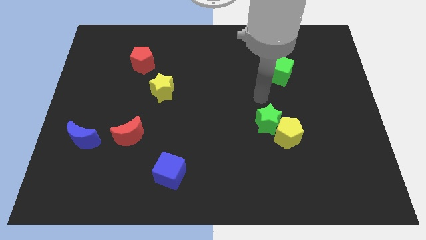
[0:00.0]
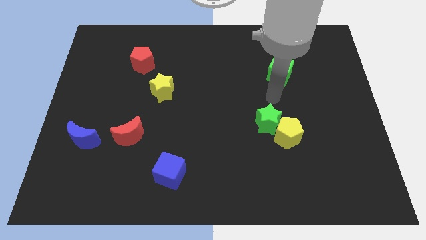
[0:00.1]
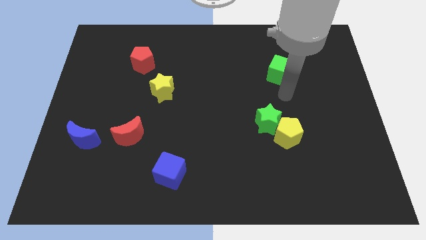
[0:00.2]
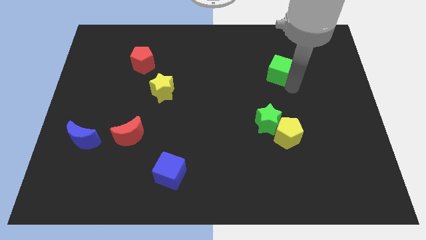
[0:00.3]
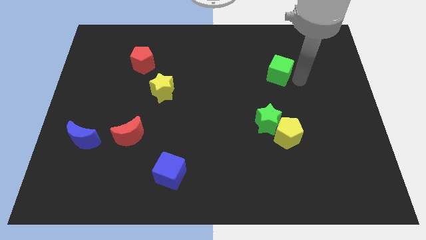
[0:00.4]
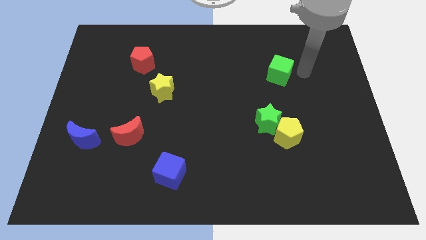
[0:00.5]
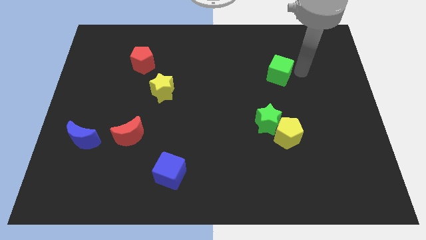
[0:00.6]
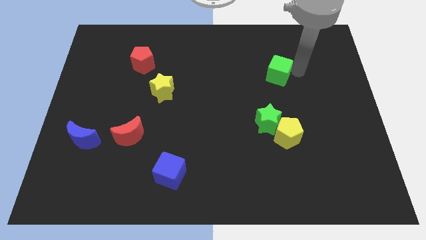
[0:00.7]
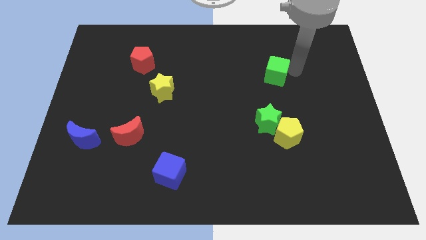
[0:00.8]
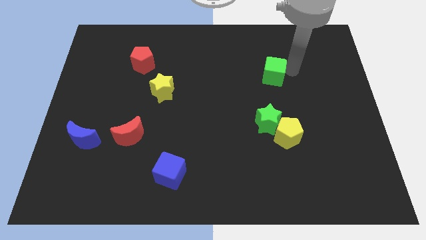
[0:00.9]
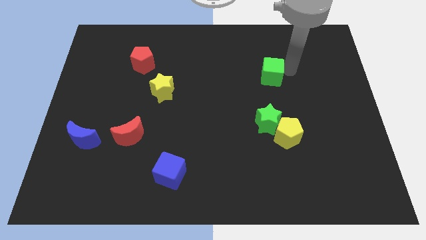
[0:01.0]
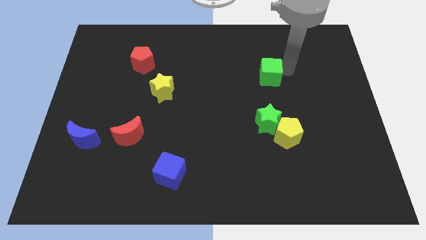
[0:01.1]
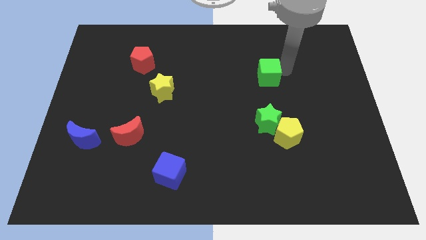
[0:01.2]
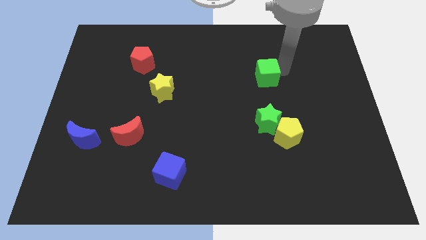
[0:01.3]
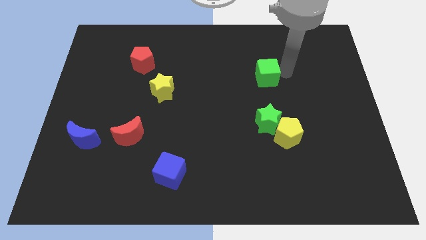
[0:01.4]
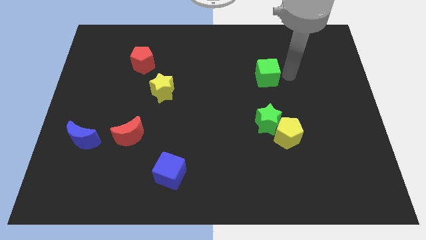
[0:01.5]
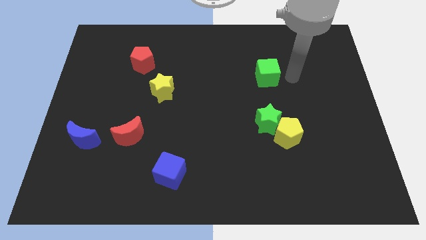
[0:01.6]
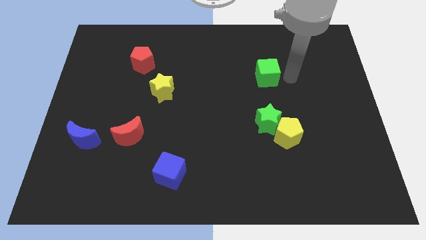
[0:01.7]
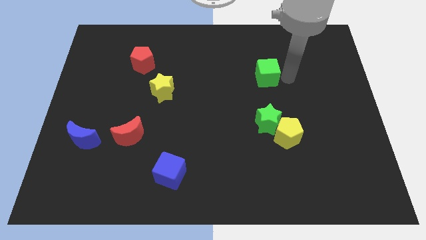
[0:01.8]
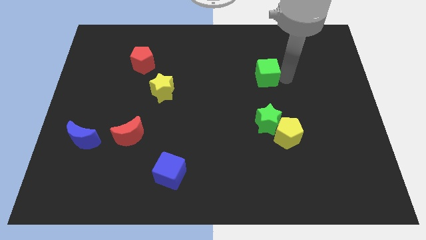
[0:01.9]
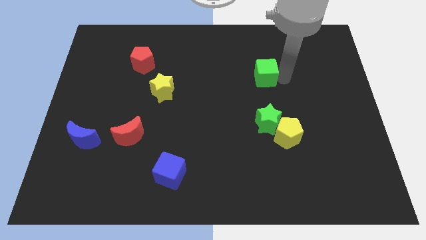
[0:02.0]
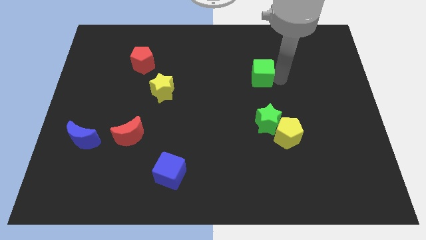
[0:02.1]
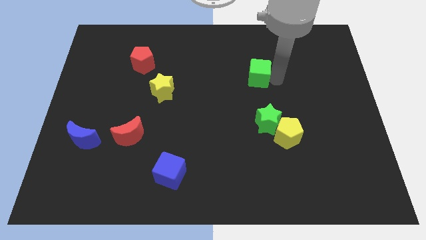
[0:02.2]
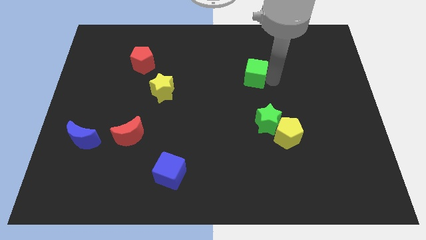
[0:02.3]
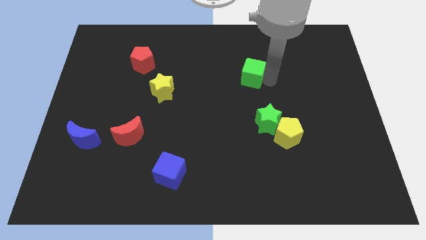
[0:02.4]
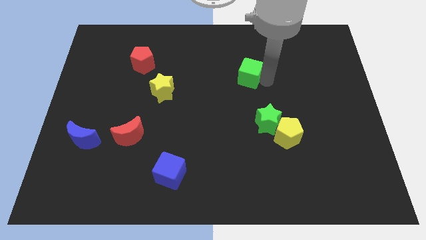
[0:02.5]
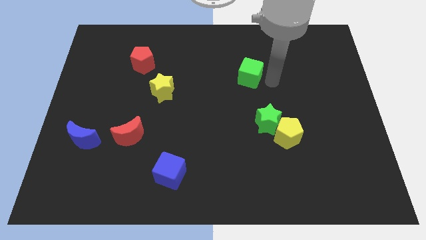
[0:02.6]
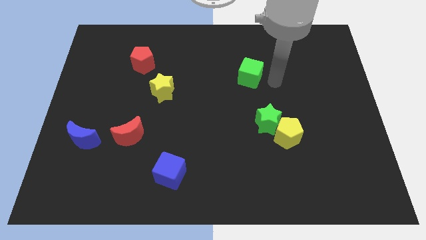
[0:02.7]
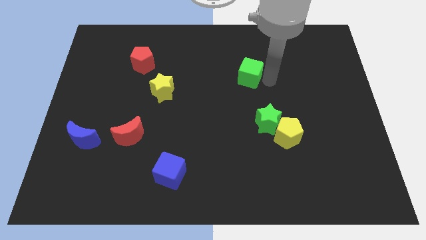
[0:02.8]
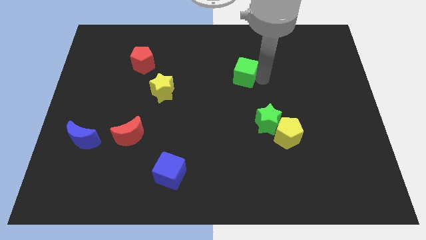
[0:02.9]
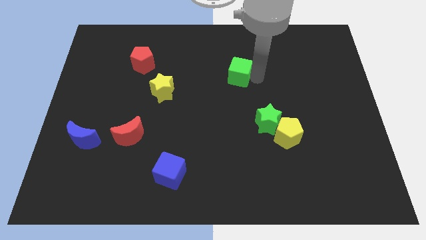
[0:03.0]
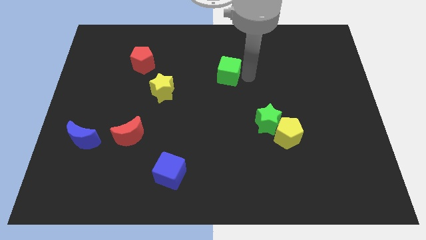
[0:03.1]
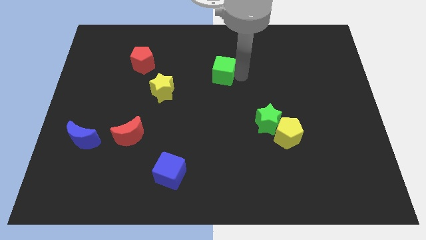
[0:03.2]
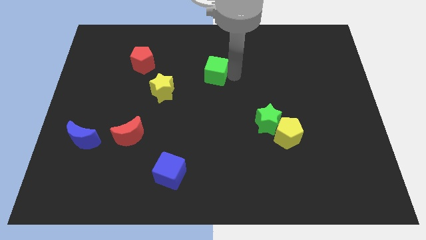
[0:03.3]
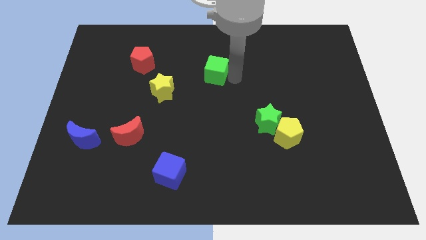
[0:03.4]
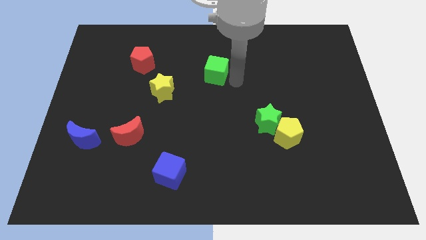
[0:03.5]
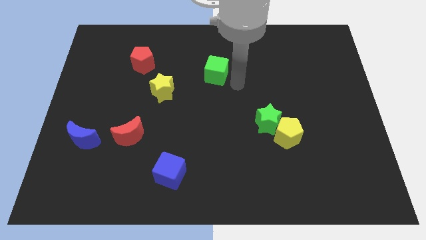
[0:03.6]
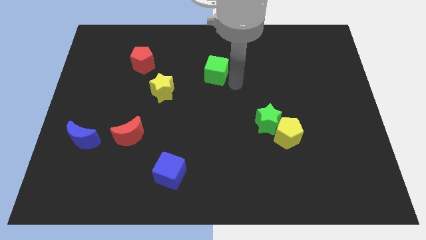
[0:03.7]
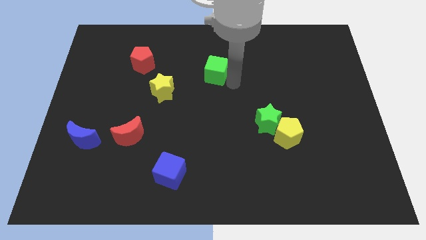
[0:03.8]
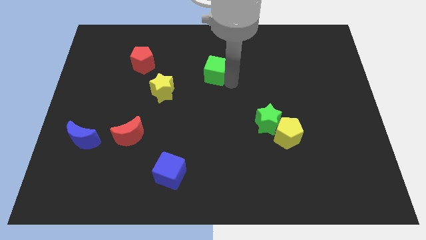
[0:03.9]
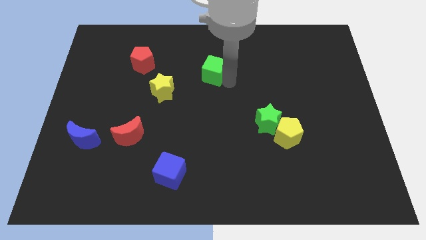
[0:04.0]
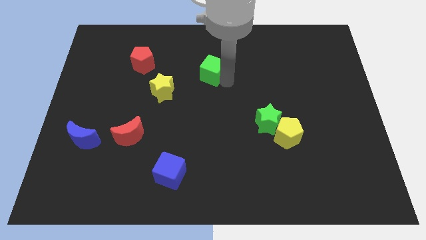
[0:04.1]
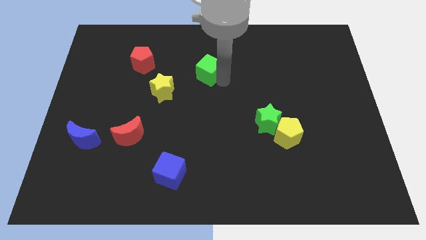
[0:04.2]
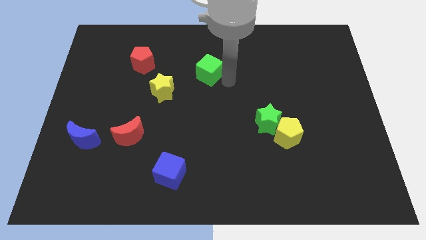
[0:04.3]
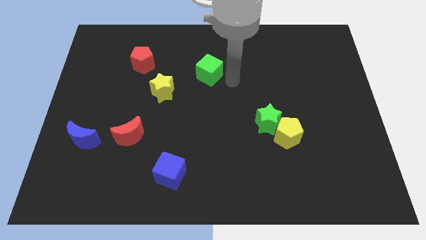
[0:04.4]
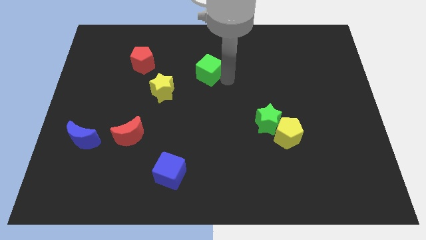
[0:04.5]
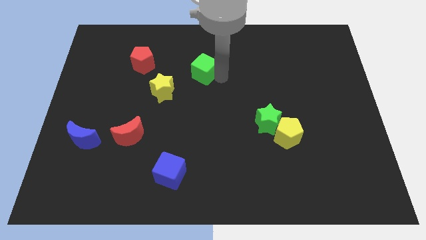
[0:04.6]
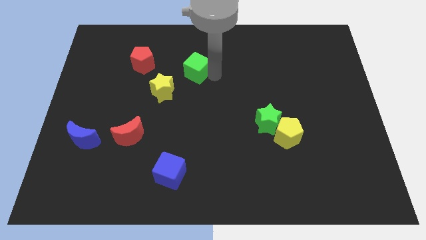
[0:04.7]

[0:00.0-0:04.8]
move the green cube just right of the red pentagon

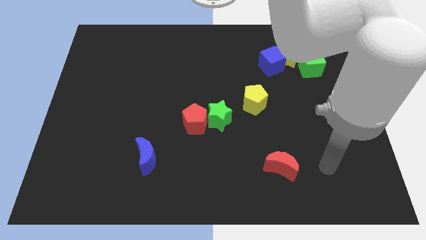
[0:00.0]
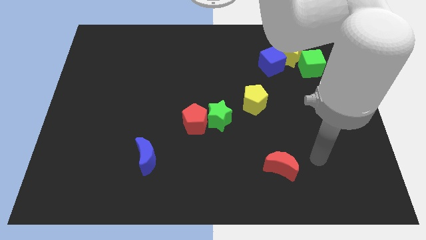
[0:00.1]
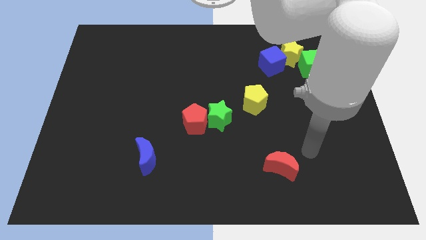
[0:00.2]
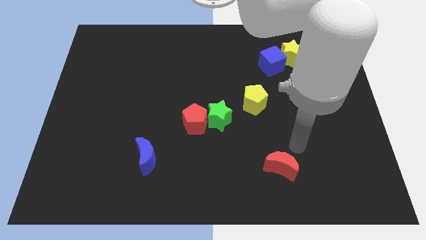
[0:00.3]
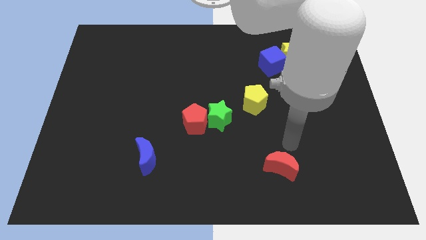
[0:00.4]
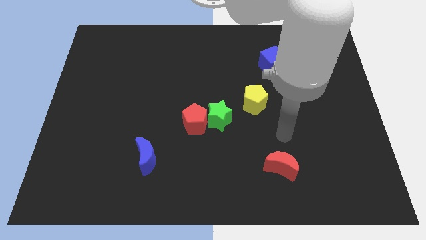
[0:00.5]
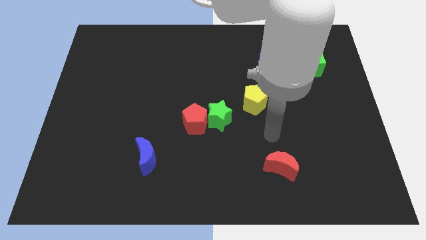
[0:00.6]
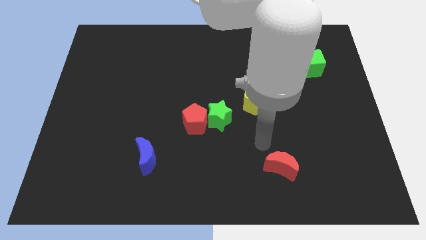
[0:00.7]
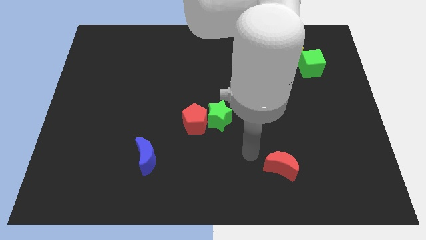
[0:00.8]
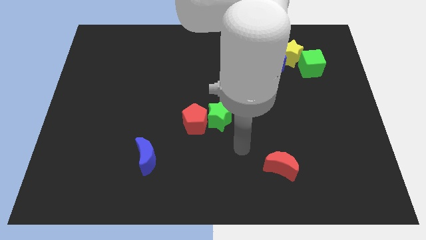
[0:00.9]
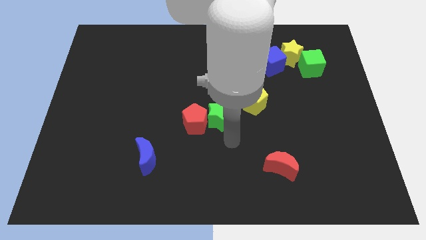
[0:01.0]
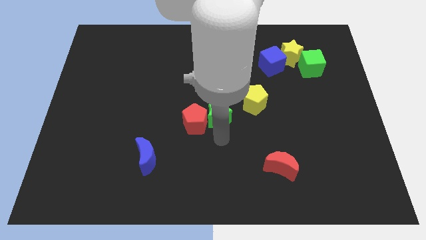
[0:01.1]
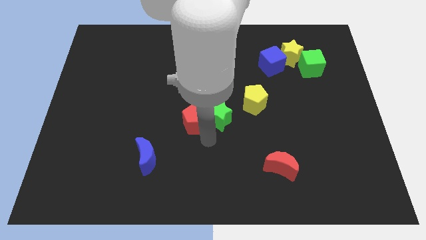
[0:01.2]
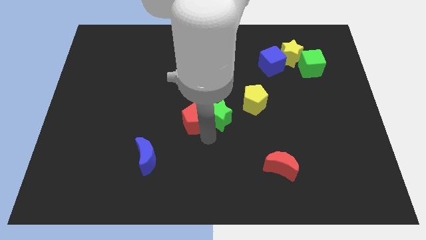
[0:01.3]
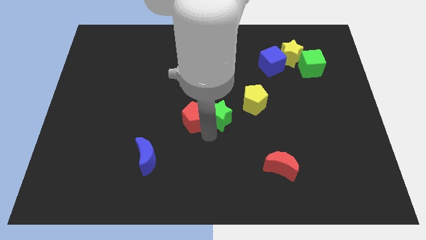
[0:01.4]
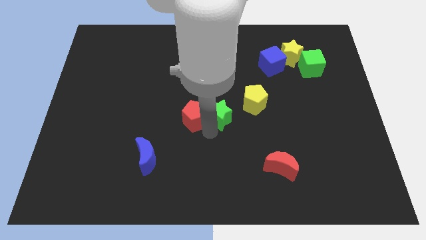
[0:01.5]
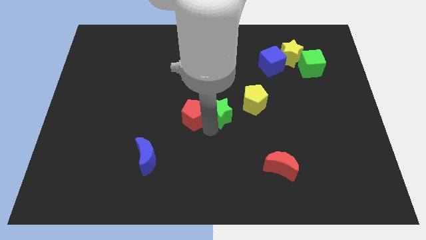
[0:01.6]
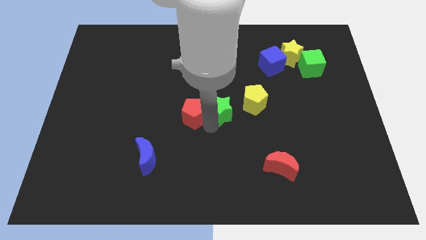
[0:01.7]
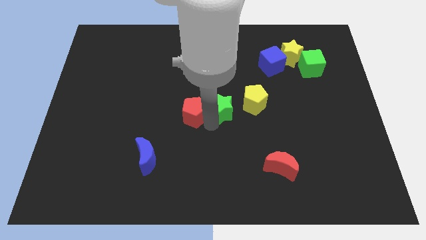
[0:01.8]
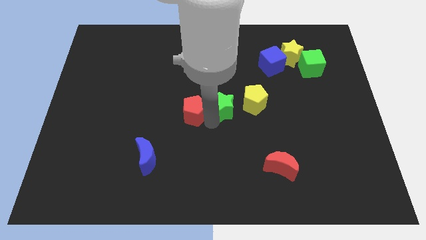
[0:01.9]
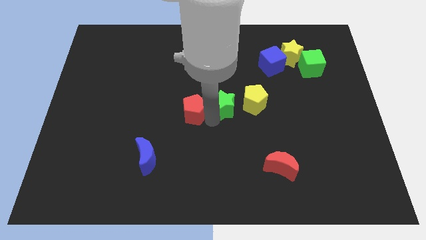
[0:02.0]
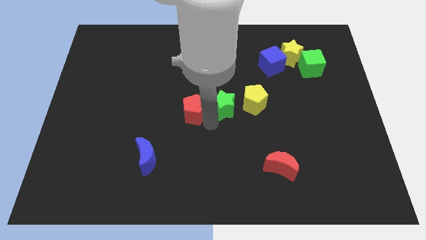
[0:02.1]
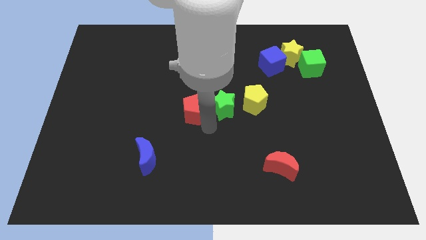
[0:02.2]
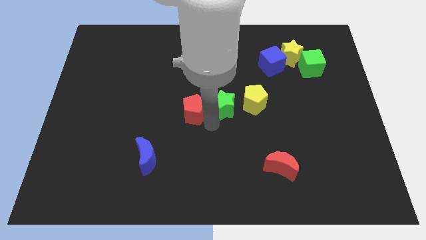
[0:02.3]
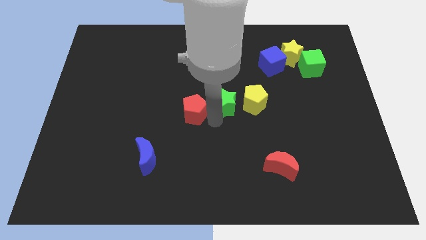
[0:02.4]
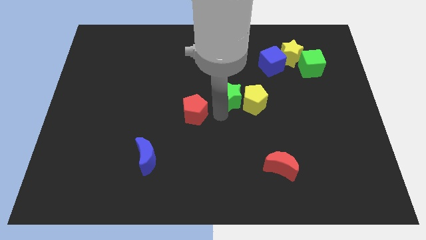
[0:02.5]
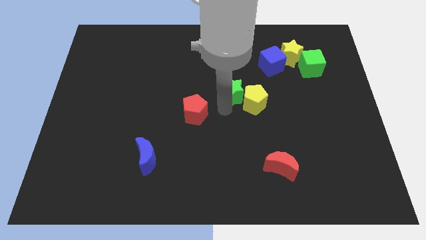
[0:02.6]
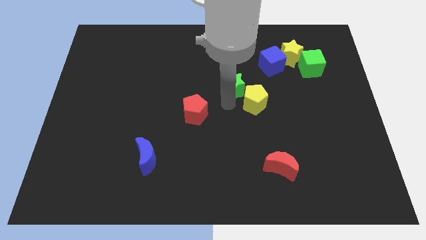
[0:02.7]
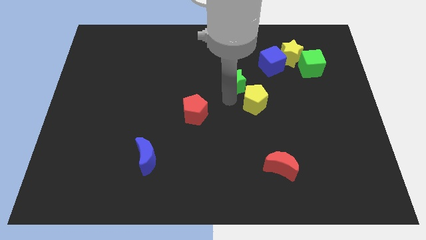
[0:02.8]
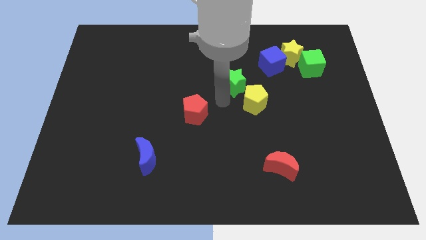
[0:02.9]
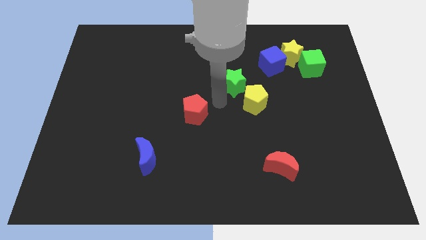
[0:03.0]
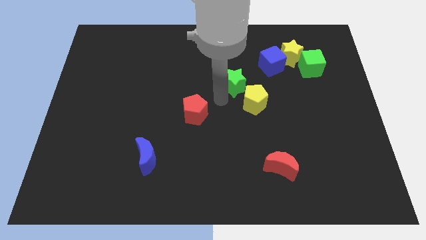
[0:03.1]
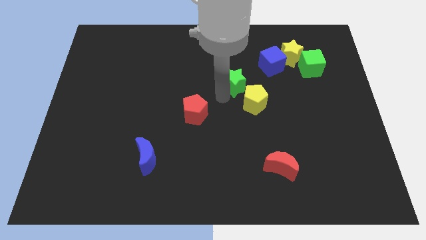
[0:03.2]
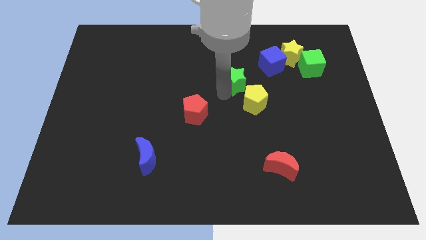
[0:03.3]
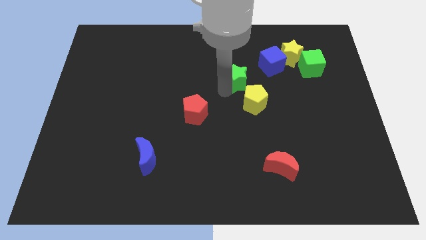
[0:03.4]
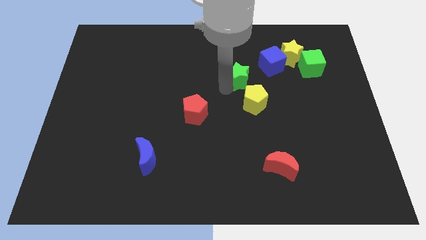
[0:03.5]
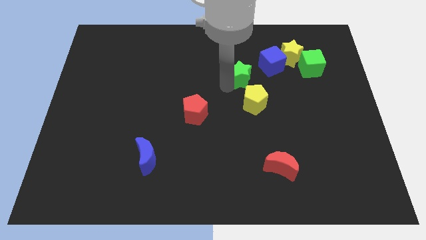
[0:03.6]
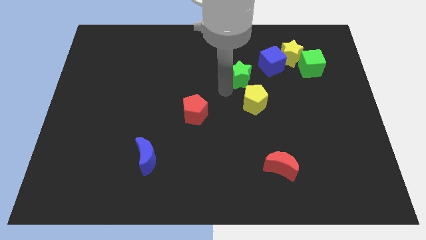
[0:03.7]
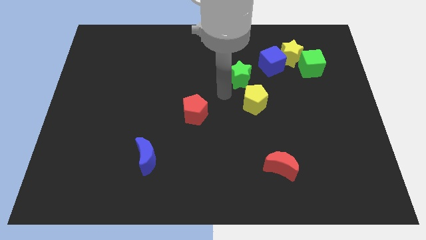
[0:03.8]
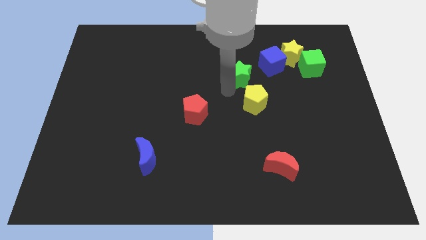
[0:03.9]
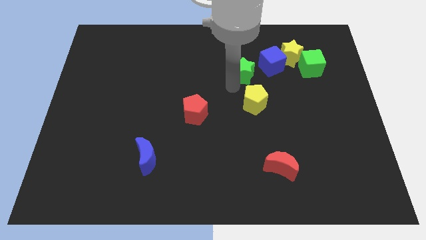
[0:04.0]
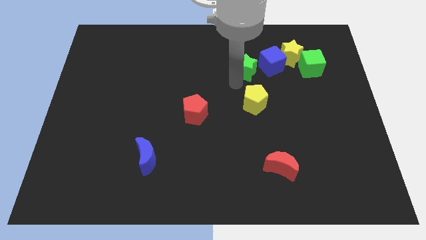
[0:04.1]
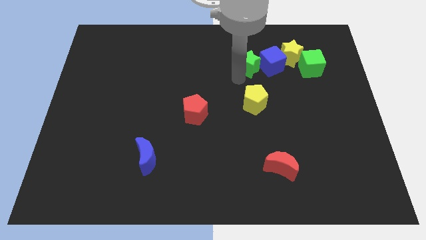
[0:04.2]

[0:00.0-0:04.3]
put the green star just left of the green cube
